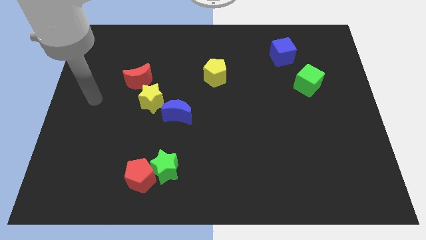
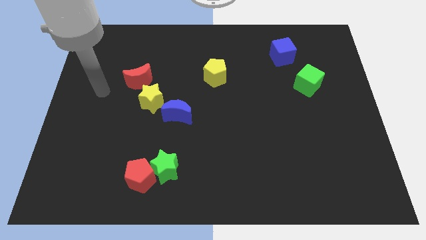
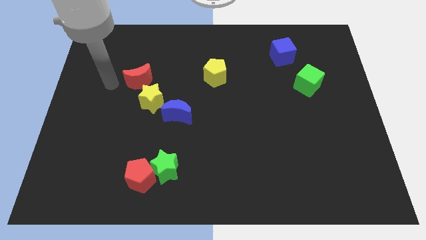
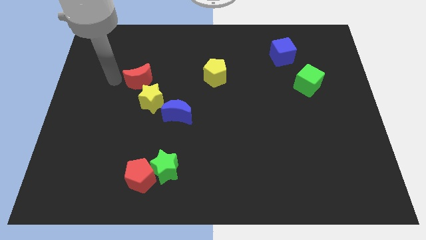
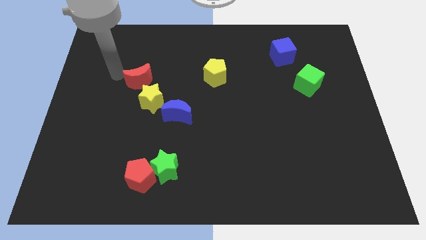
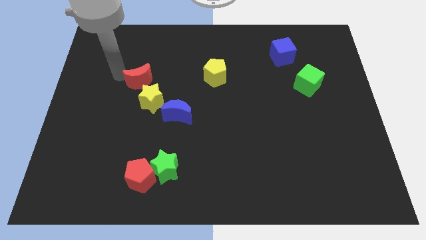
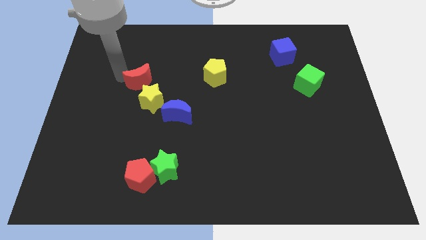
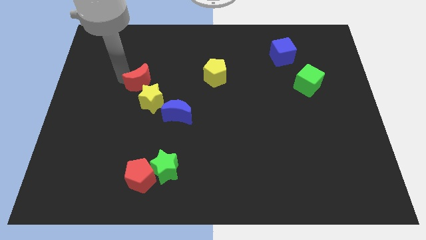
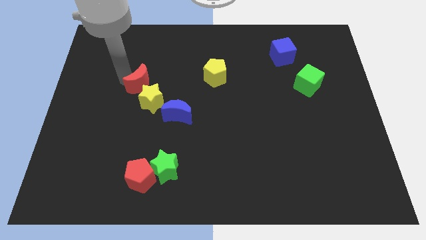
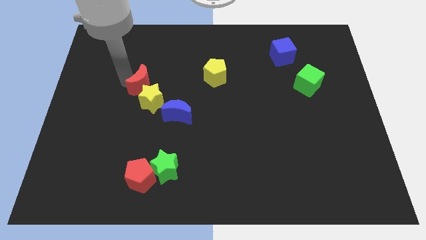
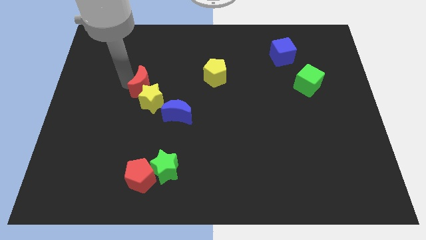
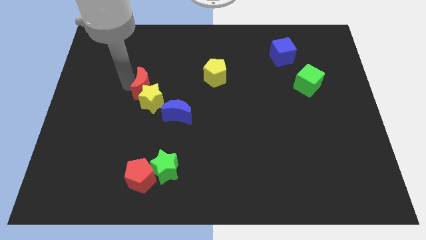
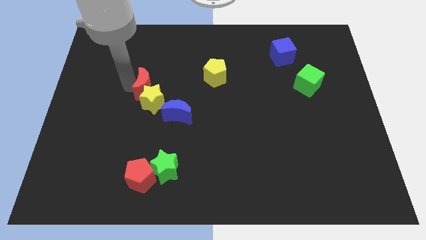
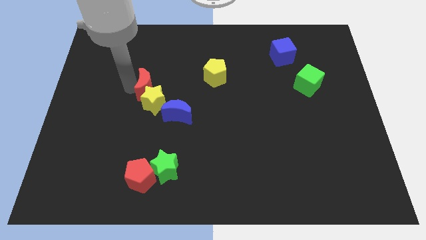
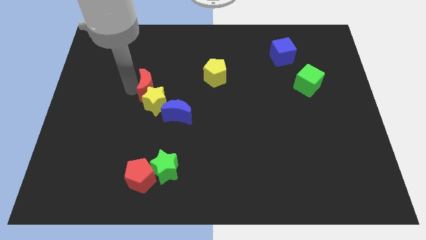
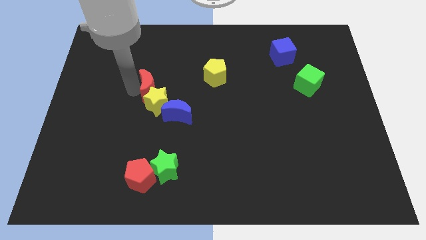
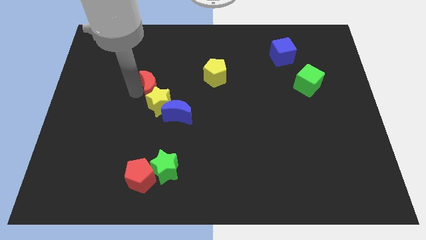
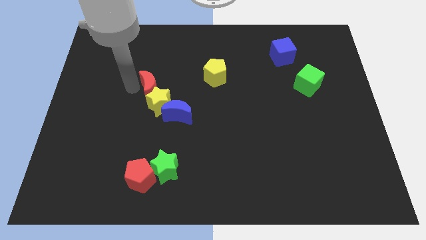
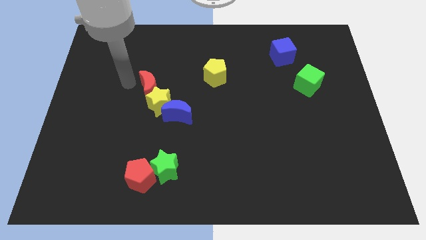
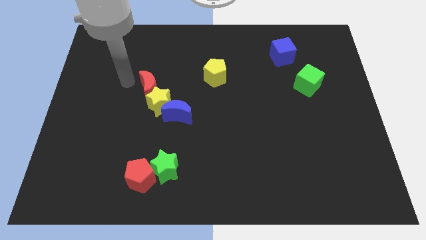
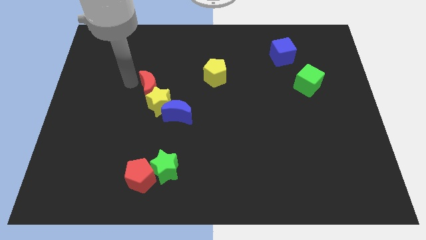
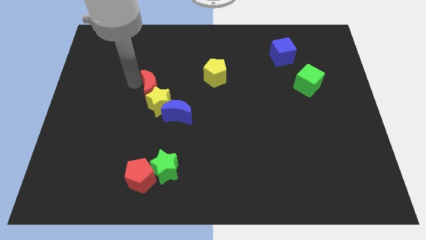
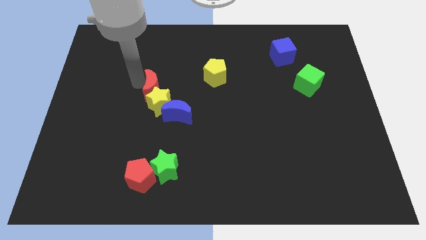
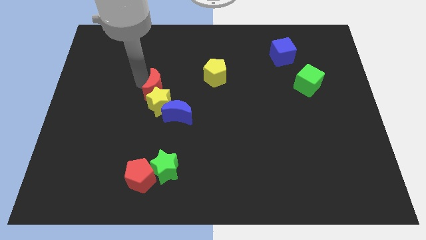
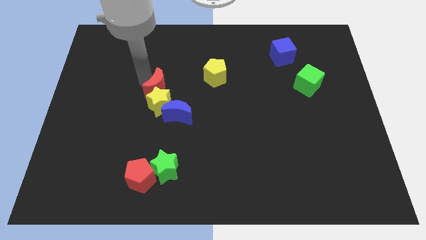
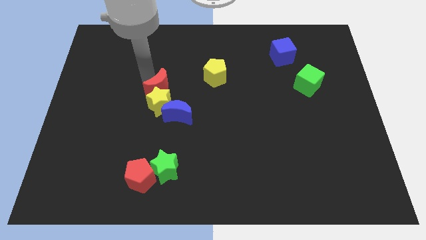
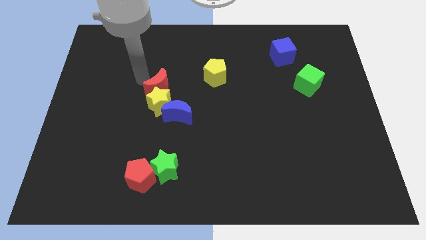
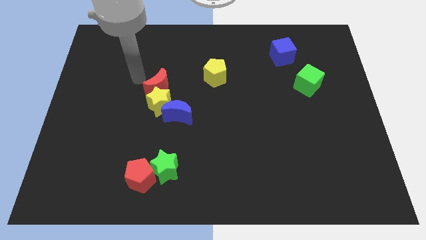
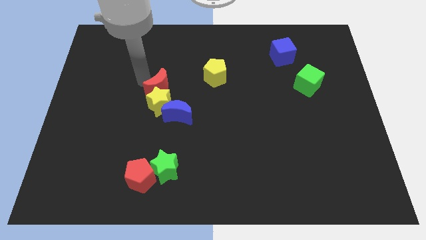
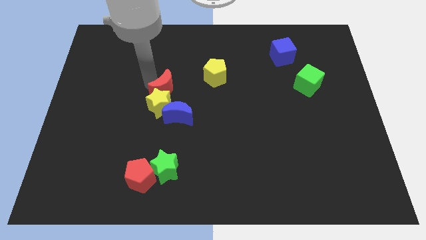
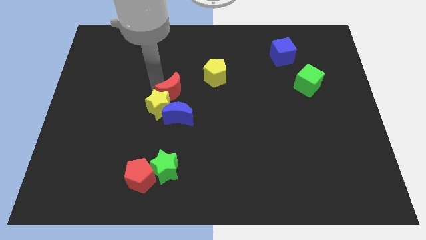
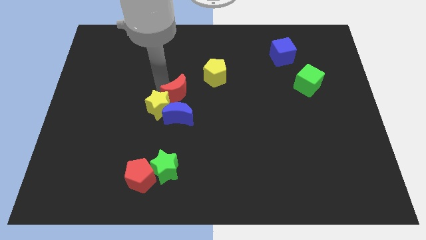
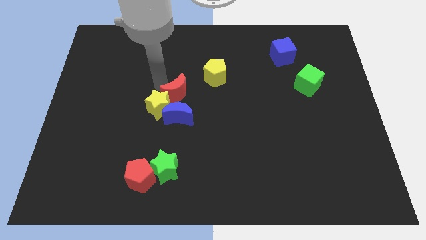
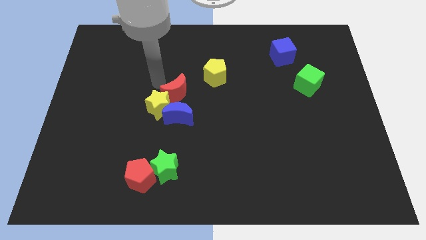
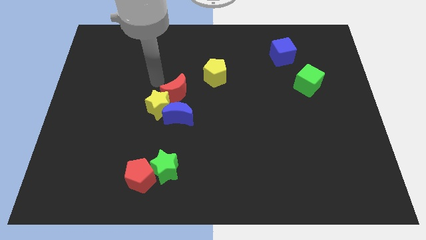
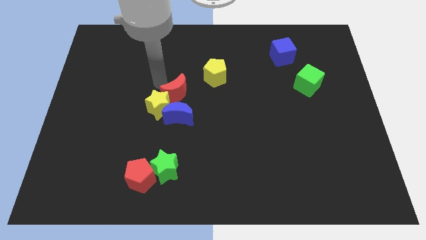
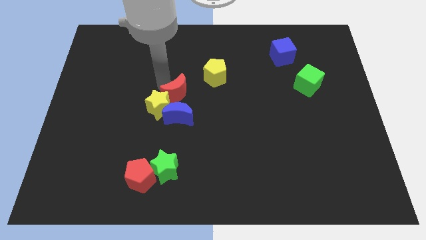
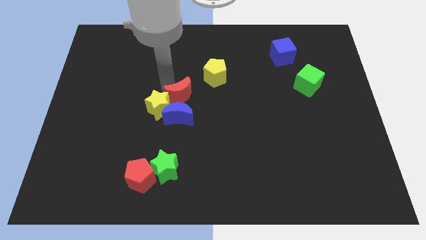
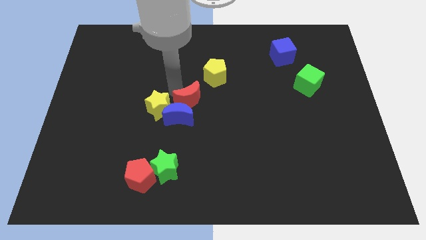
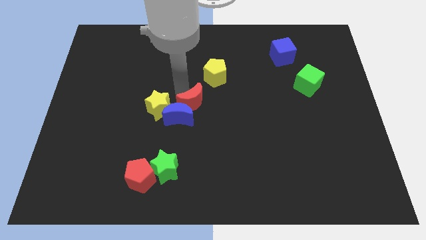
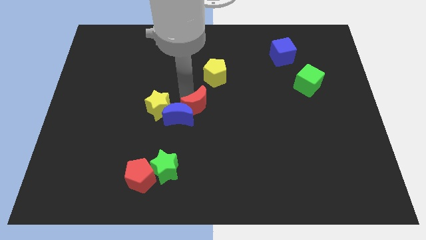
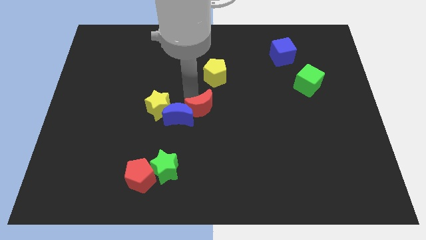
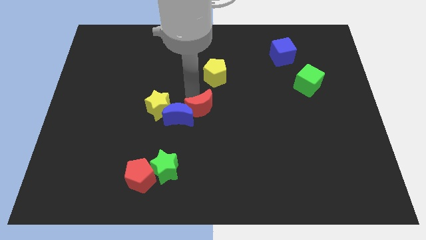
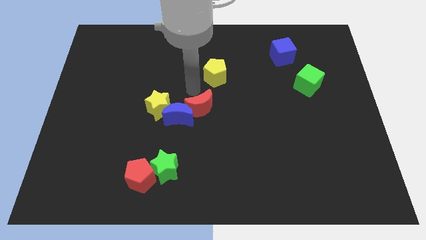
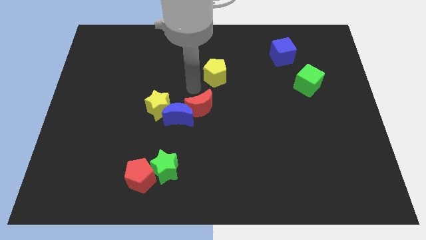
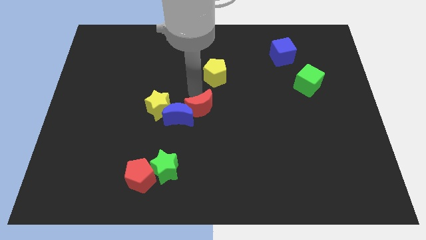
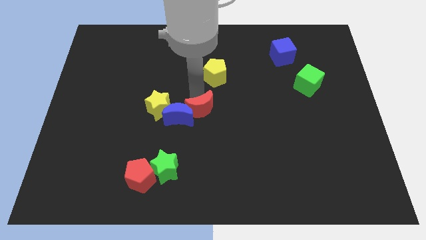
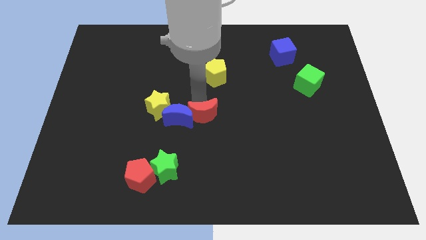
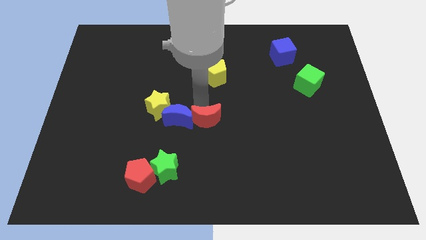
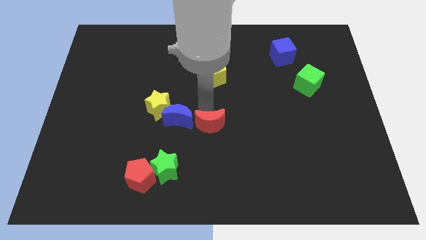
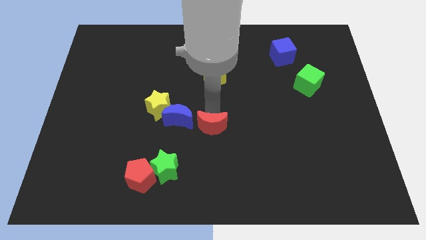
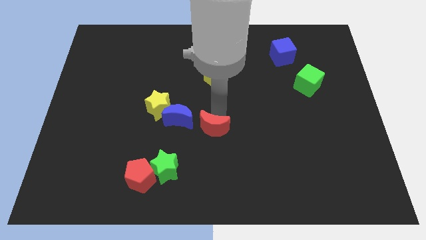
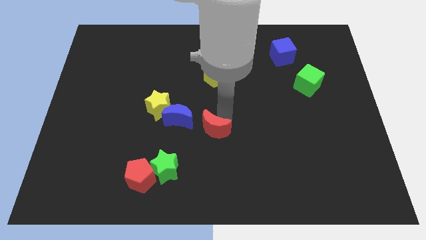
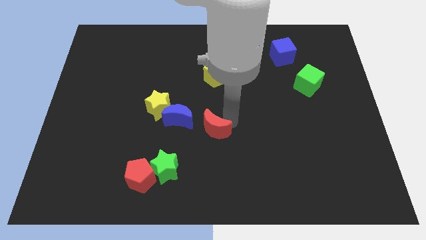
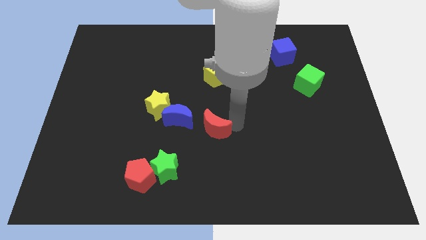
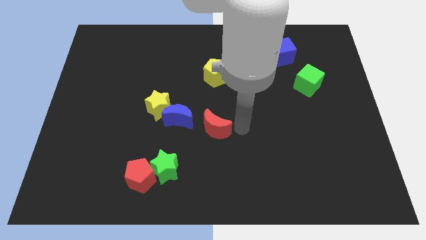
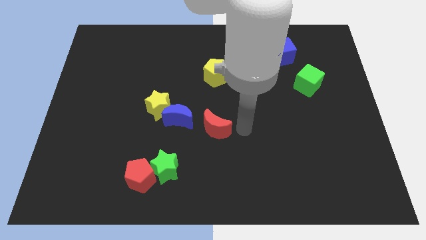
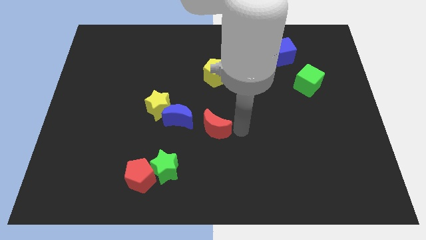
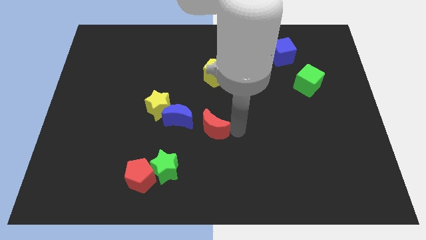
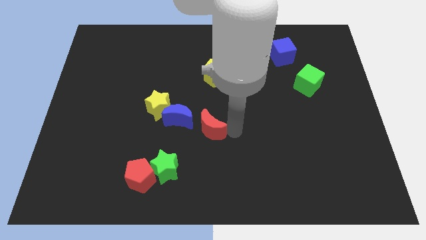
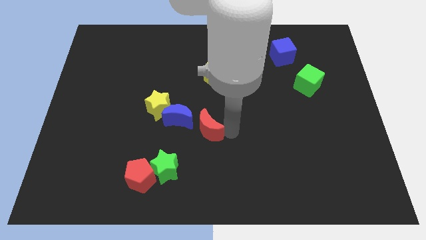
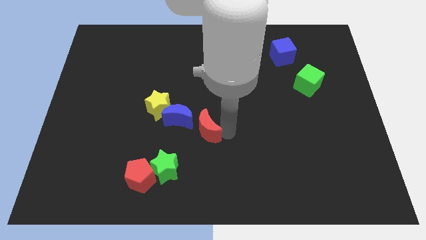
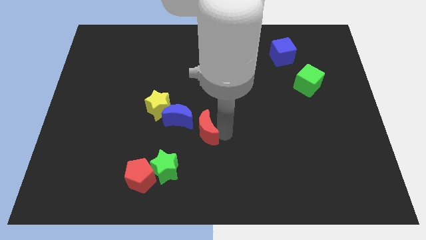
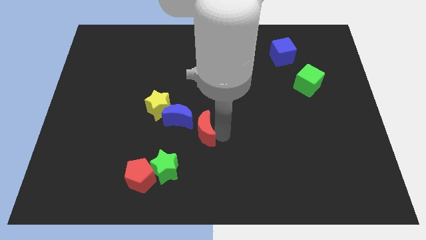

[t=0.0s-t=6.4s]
put the red moon diagonally down and to the right of the yellow star

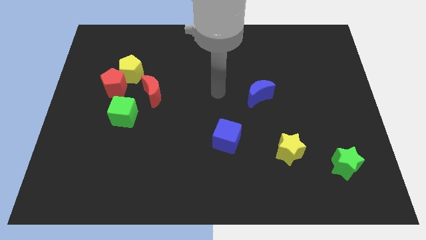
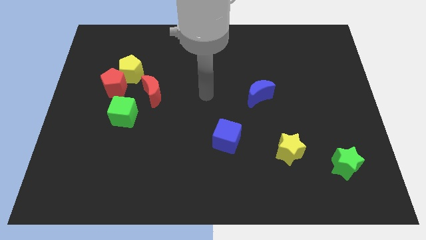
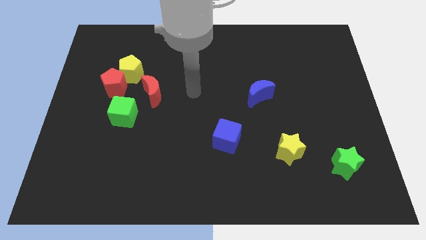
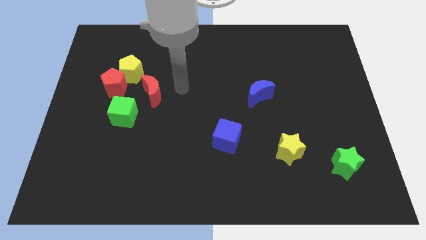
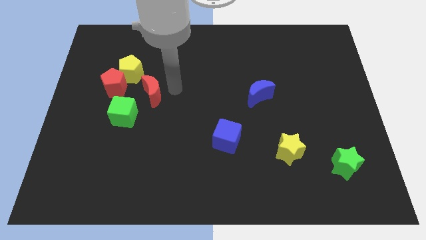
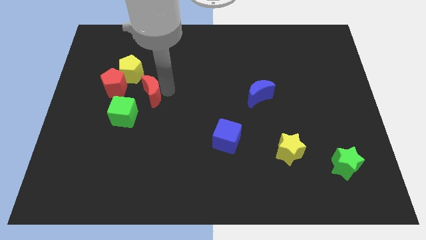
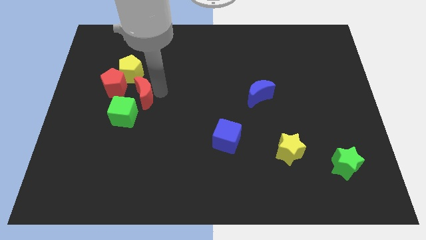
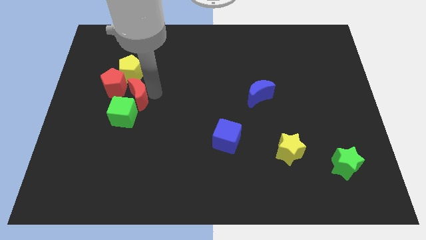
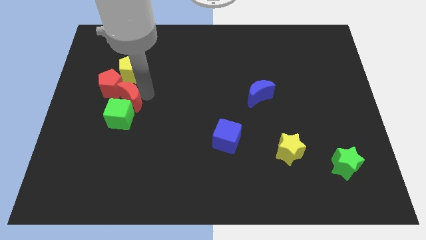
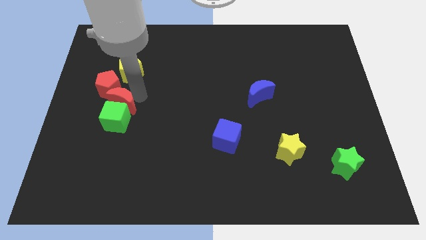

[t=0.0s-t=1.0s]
move the red moon to the bottom of the red pentagon
